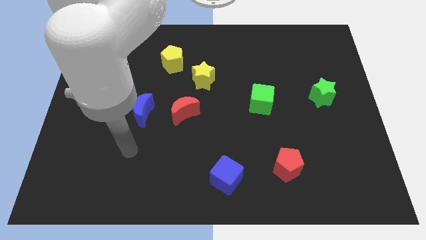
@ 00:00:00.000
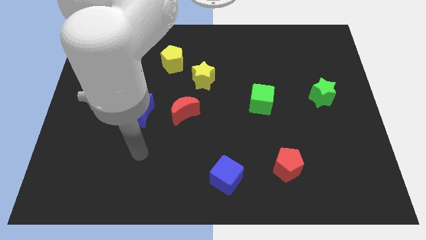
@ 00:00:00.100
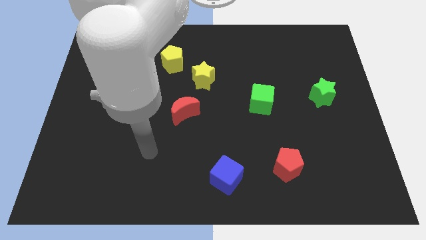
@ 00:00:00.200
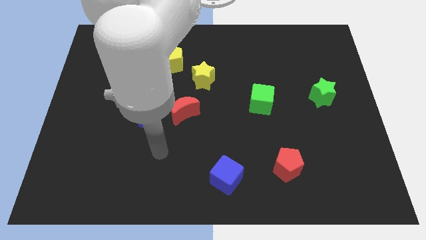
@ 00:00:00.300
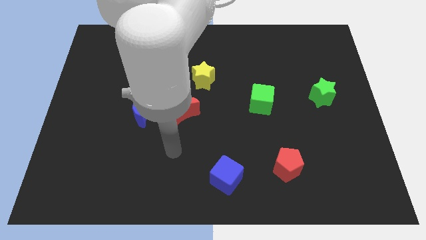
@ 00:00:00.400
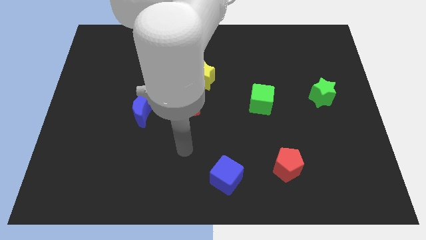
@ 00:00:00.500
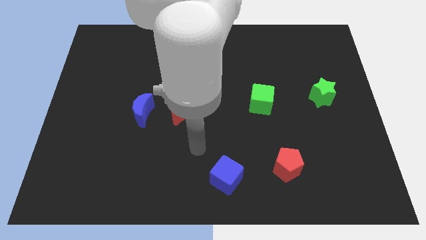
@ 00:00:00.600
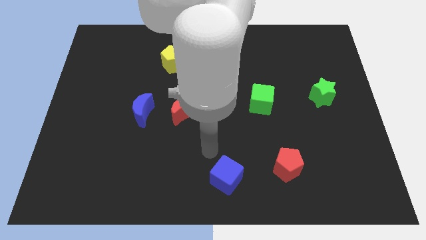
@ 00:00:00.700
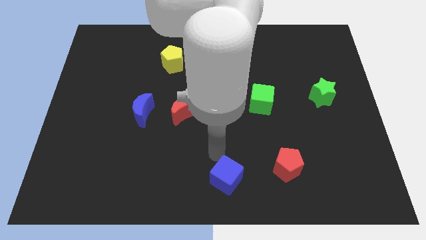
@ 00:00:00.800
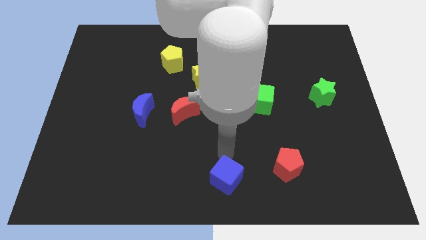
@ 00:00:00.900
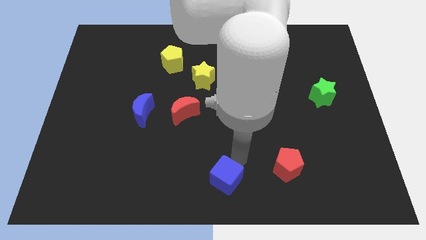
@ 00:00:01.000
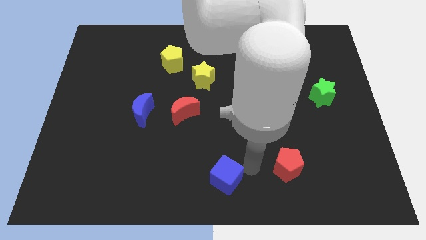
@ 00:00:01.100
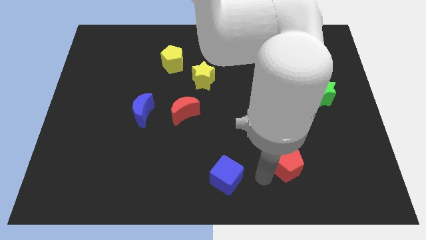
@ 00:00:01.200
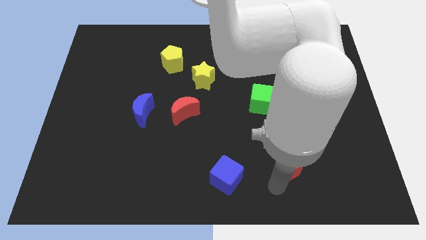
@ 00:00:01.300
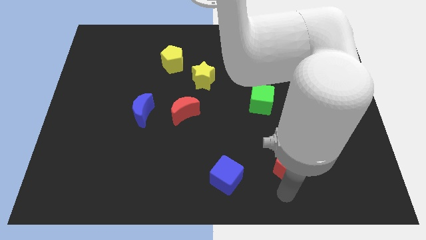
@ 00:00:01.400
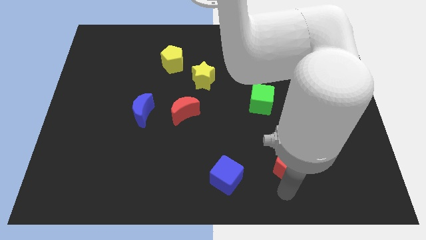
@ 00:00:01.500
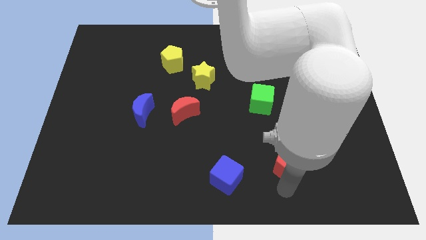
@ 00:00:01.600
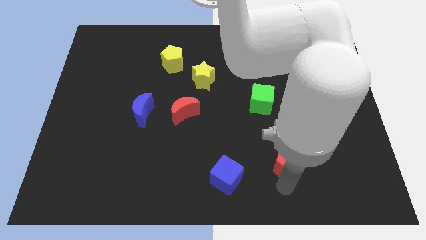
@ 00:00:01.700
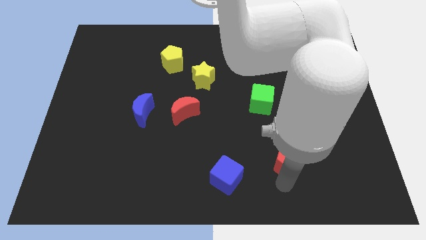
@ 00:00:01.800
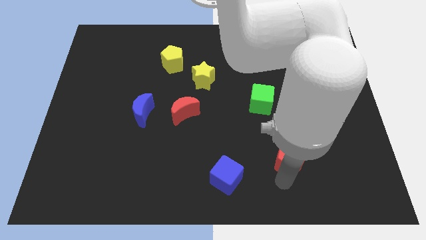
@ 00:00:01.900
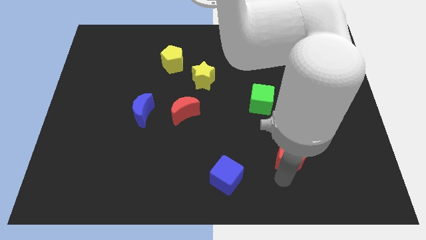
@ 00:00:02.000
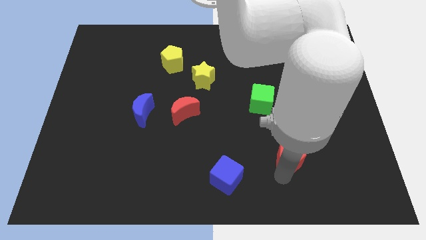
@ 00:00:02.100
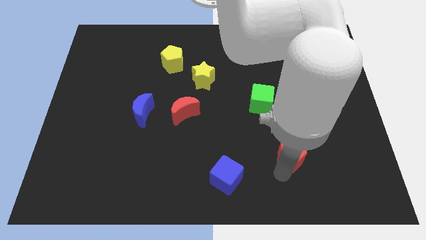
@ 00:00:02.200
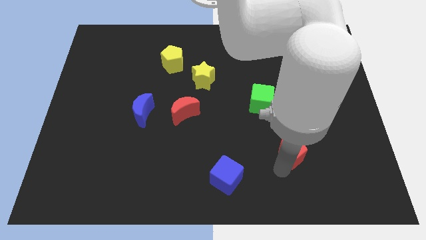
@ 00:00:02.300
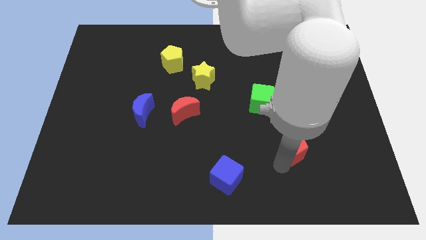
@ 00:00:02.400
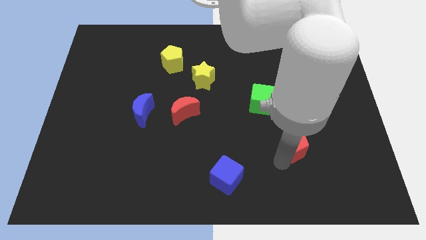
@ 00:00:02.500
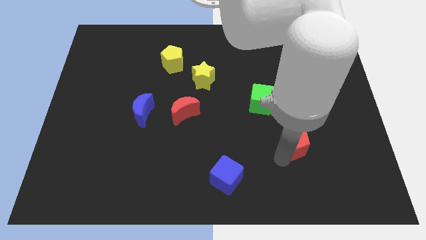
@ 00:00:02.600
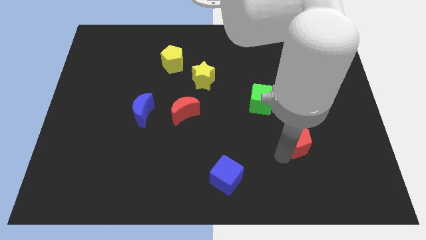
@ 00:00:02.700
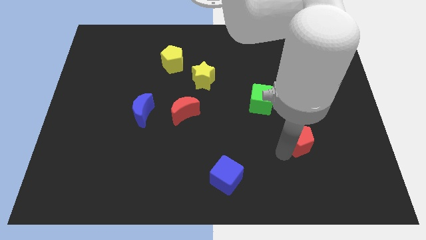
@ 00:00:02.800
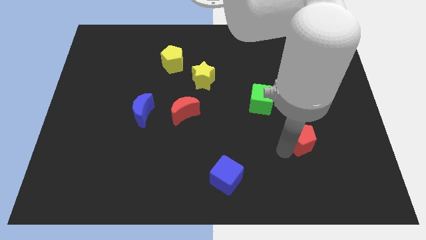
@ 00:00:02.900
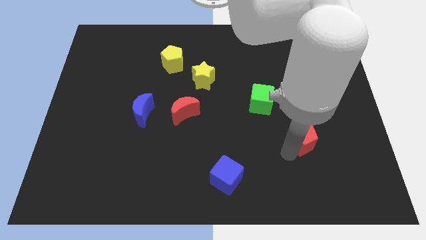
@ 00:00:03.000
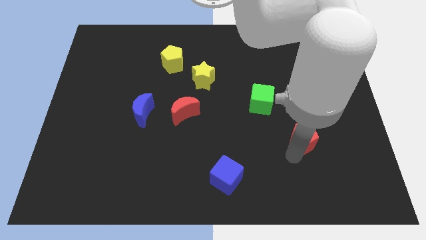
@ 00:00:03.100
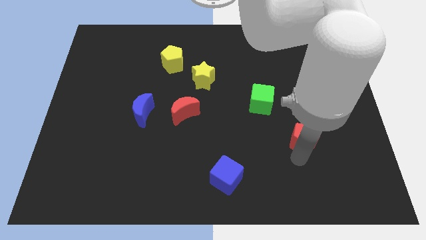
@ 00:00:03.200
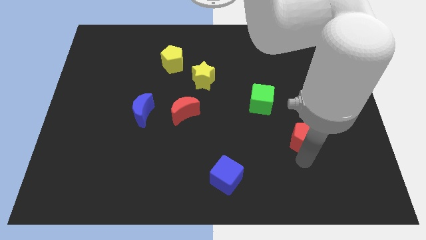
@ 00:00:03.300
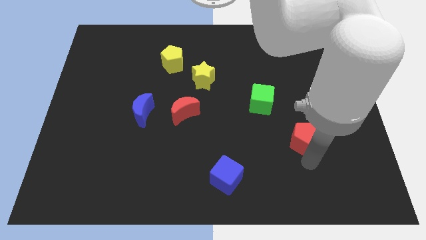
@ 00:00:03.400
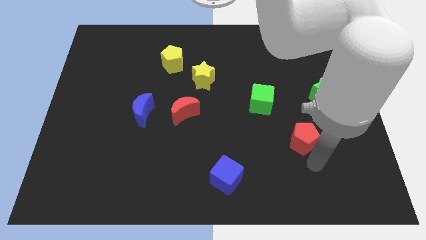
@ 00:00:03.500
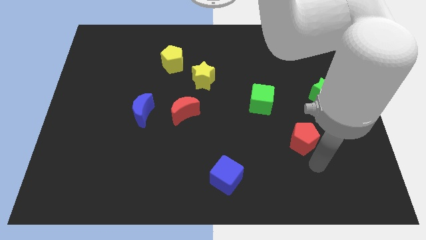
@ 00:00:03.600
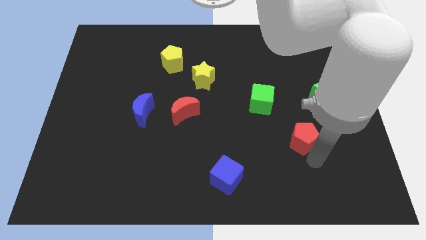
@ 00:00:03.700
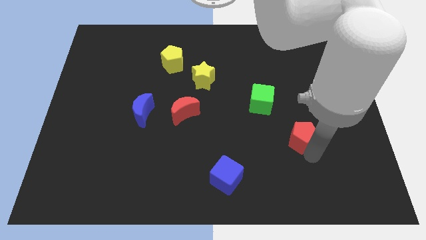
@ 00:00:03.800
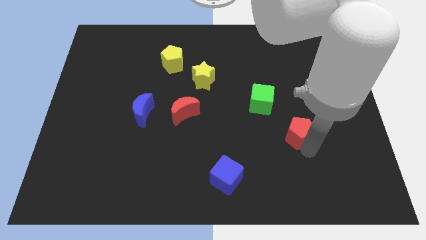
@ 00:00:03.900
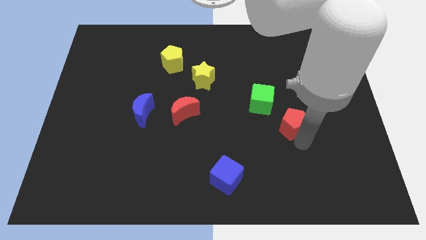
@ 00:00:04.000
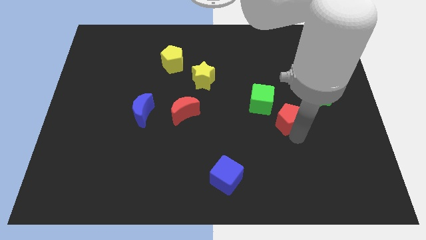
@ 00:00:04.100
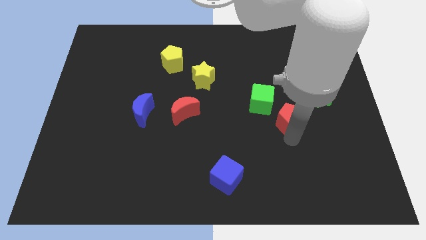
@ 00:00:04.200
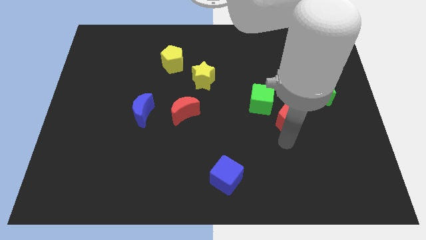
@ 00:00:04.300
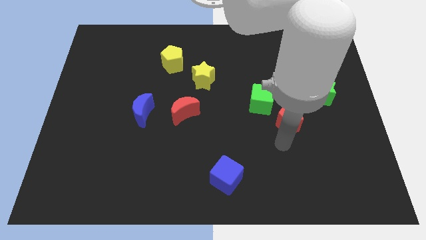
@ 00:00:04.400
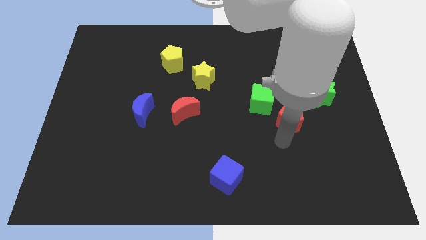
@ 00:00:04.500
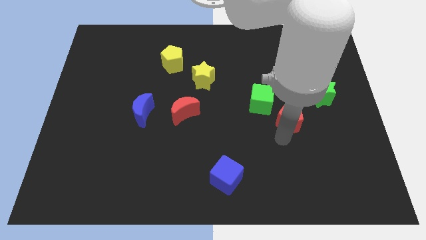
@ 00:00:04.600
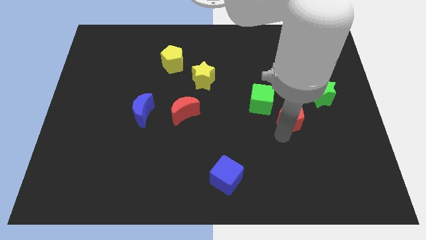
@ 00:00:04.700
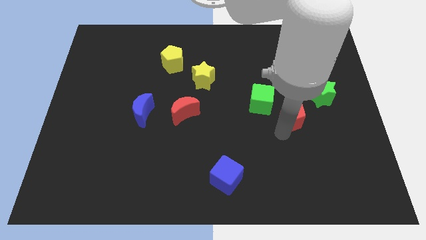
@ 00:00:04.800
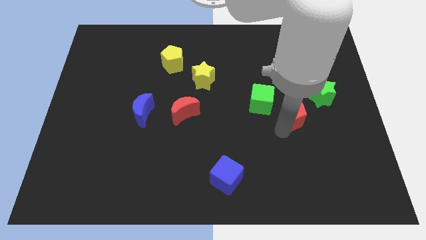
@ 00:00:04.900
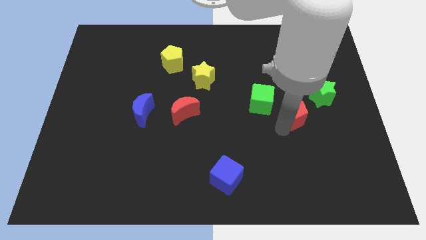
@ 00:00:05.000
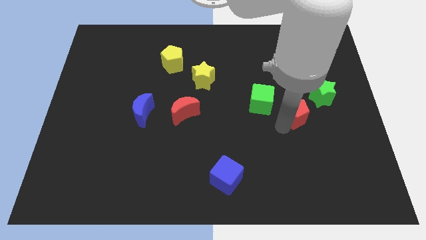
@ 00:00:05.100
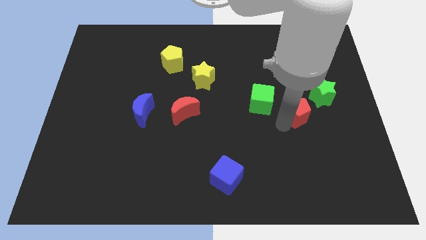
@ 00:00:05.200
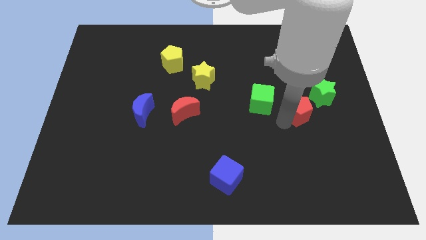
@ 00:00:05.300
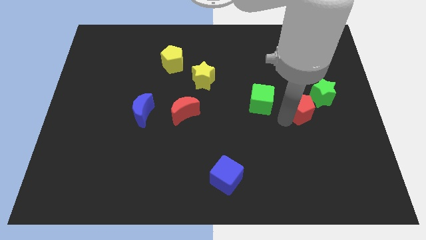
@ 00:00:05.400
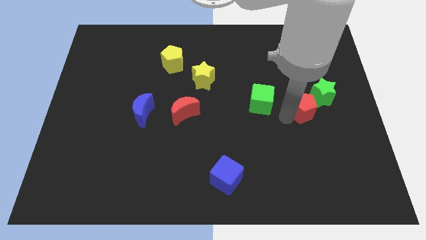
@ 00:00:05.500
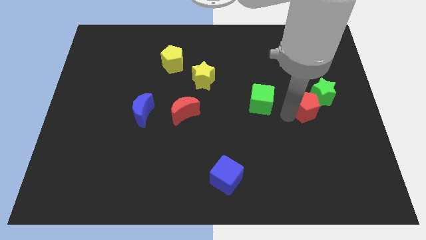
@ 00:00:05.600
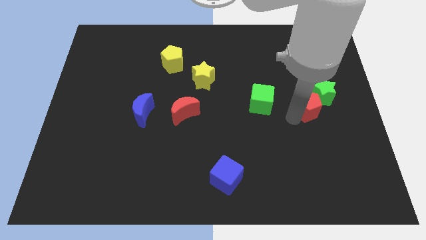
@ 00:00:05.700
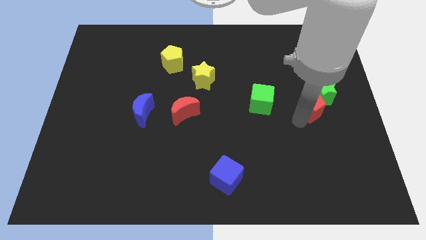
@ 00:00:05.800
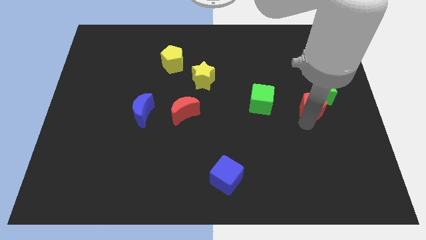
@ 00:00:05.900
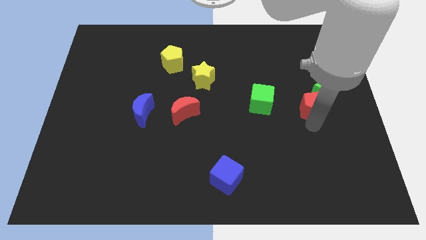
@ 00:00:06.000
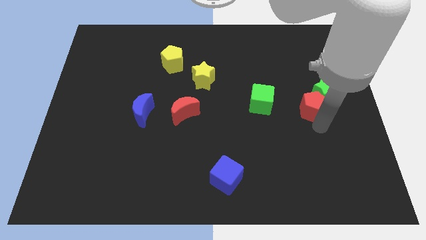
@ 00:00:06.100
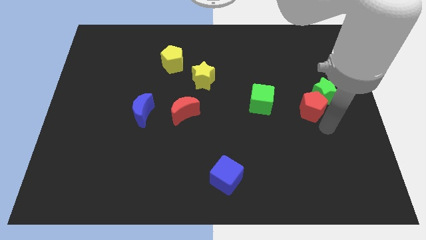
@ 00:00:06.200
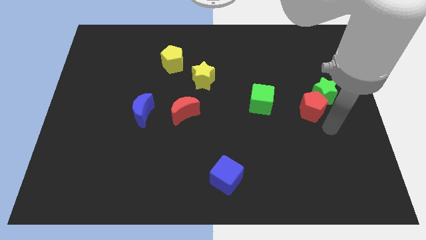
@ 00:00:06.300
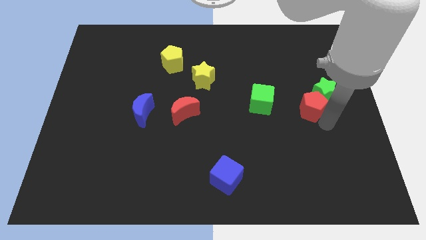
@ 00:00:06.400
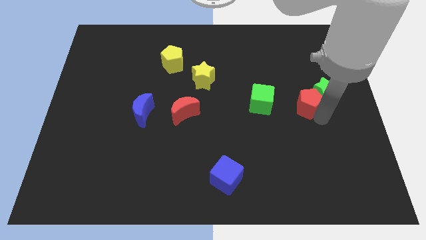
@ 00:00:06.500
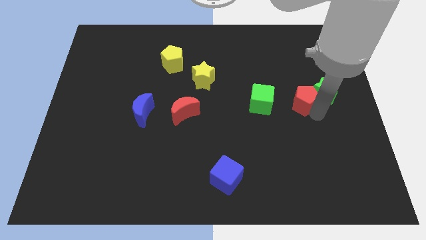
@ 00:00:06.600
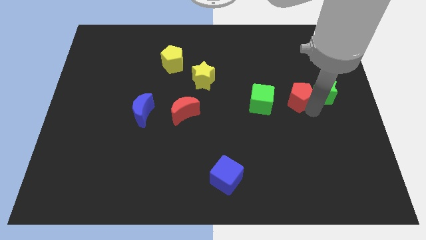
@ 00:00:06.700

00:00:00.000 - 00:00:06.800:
slide the red pentagon to the top left of the green star

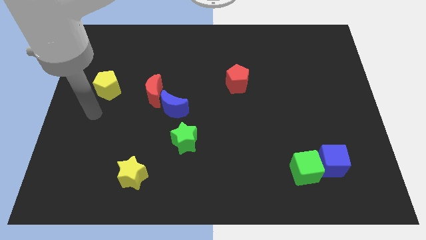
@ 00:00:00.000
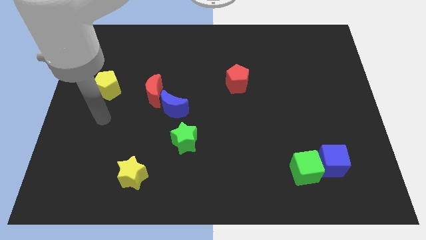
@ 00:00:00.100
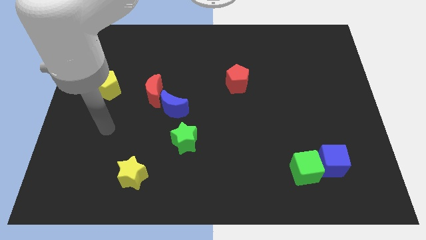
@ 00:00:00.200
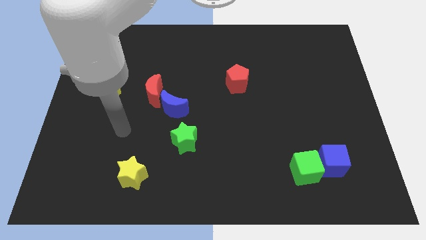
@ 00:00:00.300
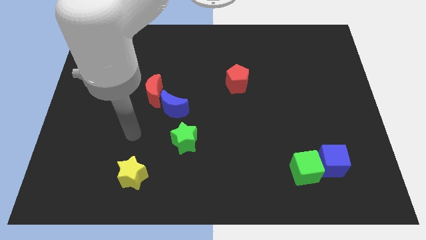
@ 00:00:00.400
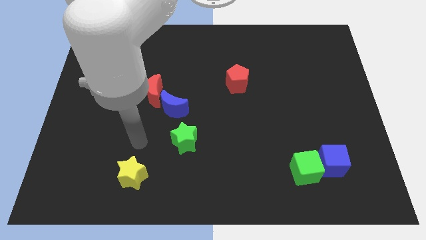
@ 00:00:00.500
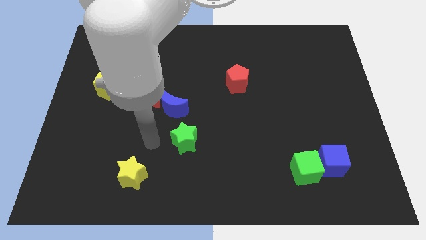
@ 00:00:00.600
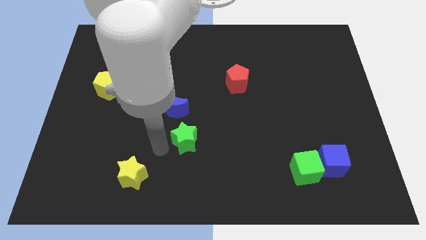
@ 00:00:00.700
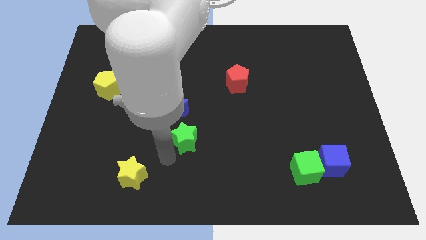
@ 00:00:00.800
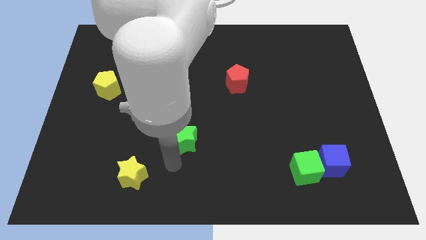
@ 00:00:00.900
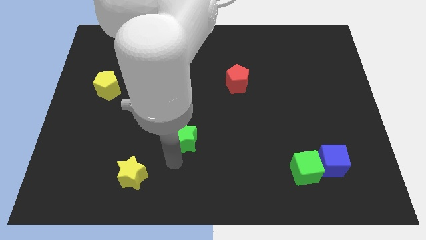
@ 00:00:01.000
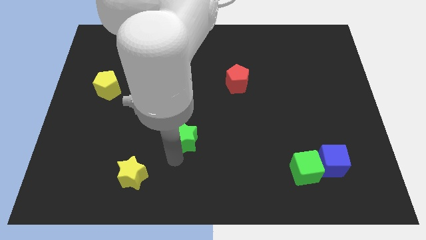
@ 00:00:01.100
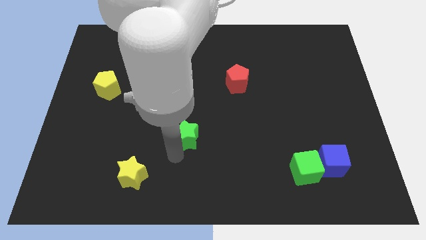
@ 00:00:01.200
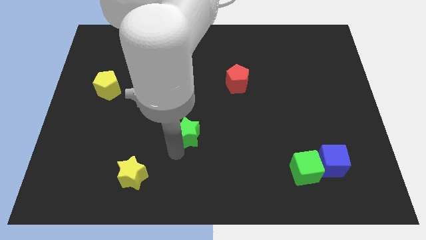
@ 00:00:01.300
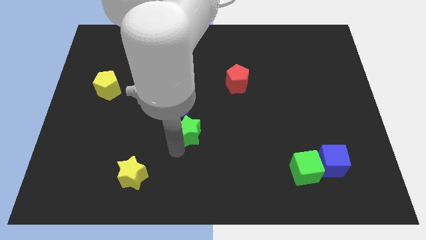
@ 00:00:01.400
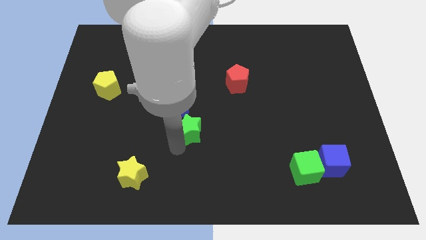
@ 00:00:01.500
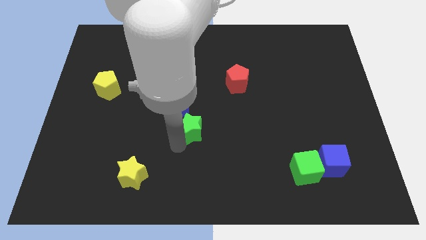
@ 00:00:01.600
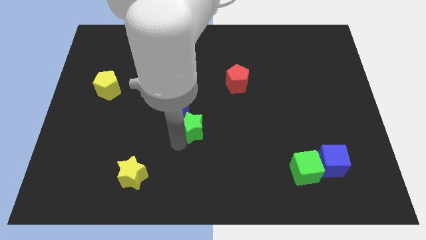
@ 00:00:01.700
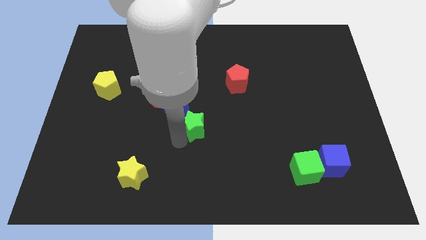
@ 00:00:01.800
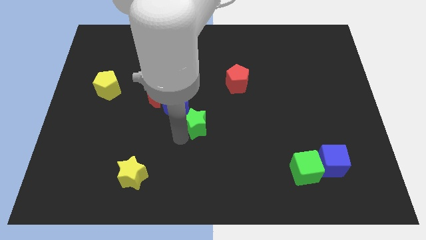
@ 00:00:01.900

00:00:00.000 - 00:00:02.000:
slide the green star to the right of the blue moon
